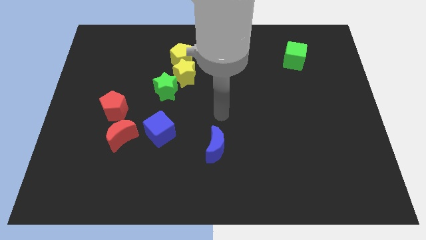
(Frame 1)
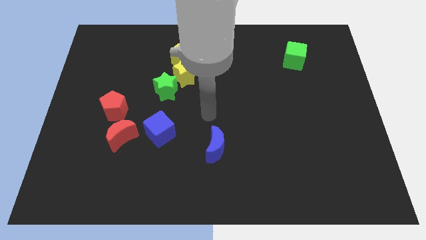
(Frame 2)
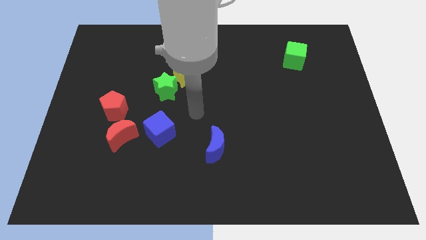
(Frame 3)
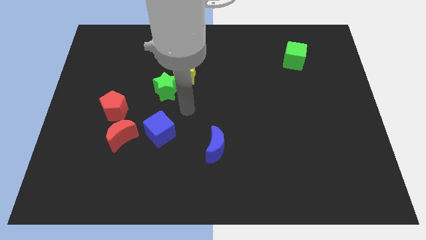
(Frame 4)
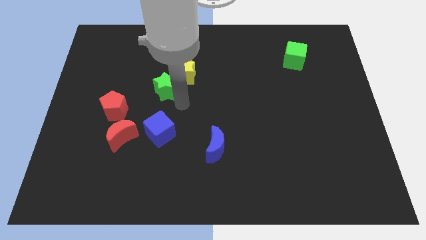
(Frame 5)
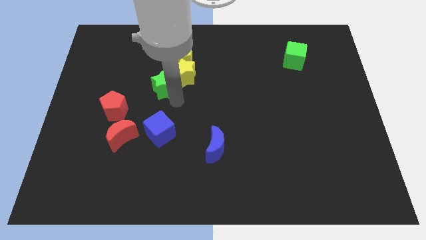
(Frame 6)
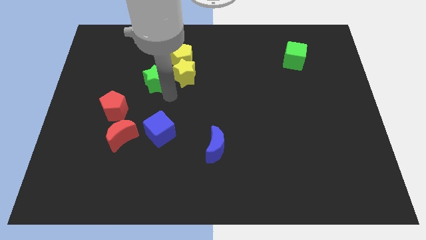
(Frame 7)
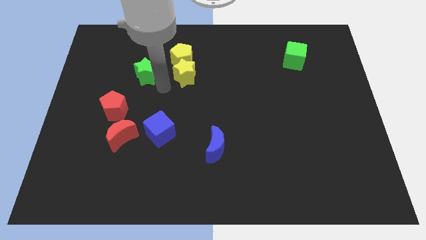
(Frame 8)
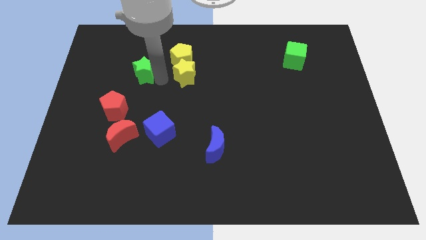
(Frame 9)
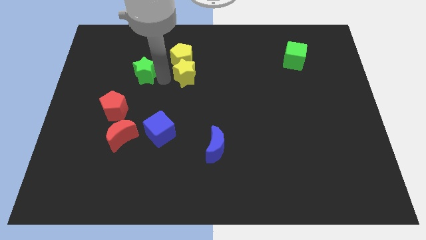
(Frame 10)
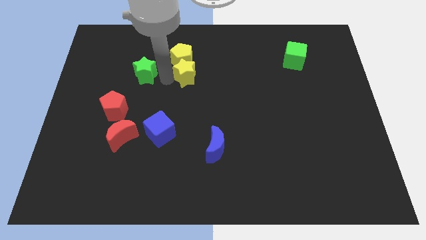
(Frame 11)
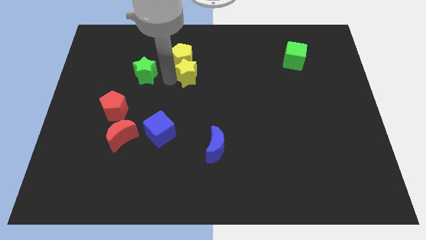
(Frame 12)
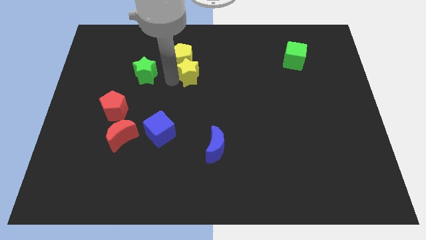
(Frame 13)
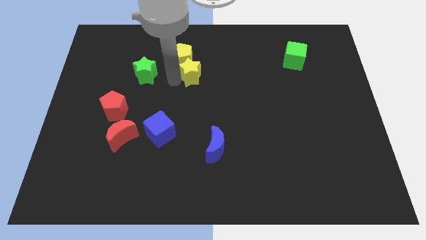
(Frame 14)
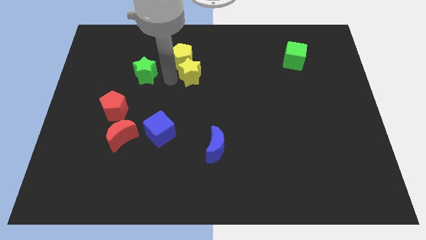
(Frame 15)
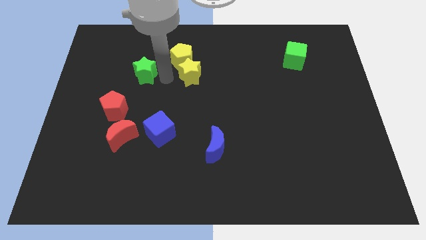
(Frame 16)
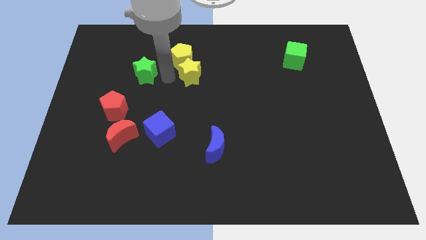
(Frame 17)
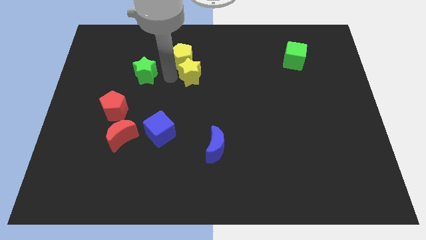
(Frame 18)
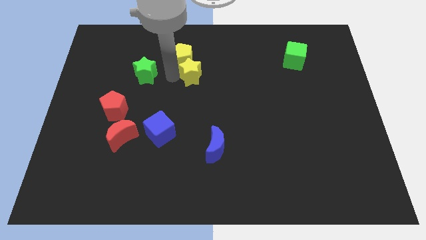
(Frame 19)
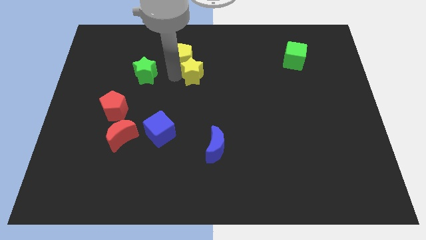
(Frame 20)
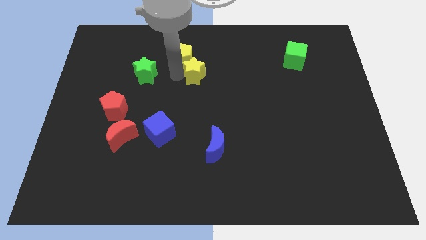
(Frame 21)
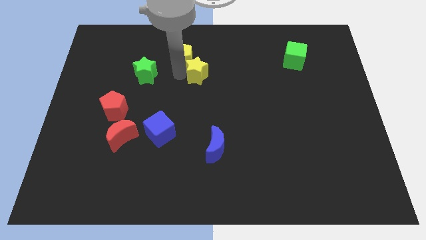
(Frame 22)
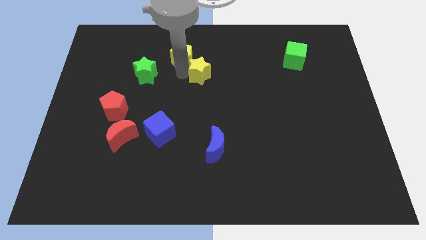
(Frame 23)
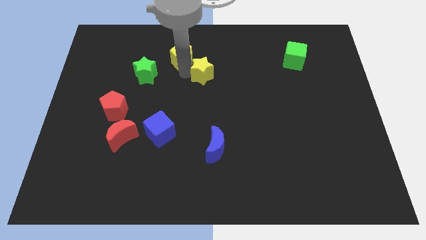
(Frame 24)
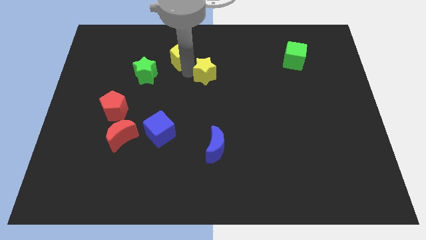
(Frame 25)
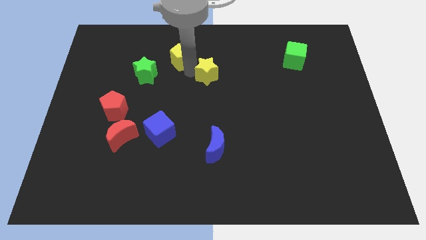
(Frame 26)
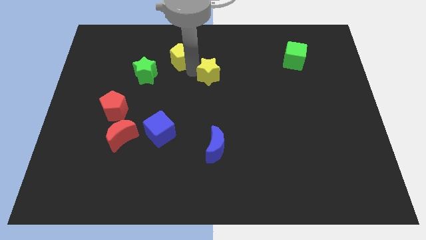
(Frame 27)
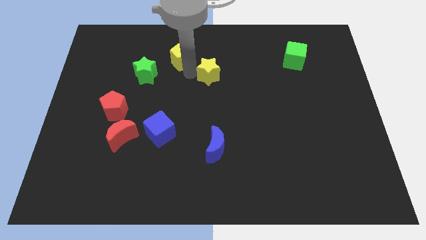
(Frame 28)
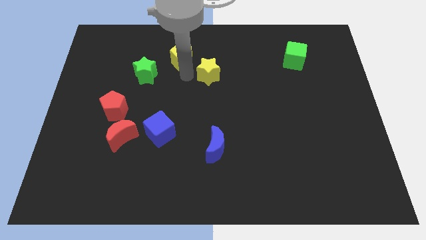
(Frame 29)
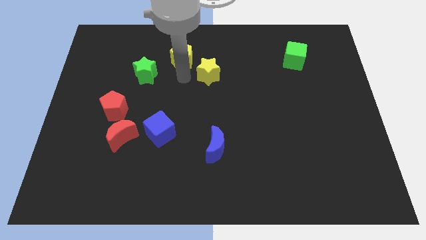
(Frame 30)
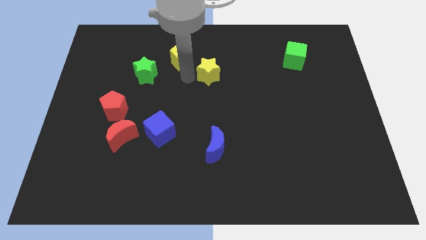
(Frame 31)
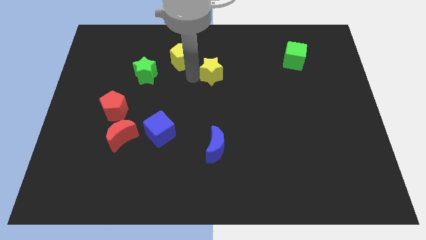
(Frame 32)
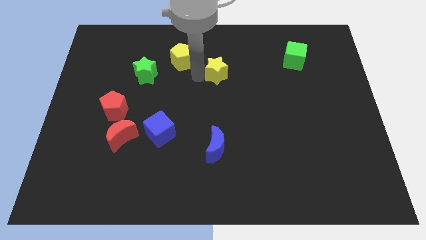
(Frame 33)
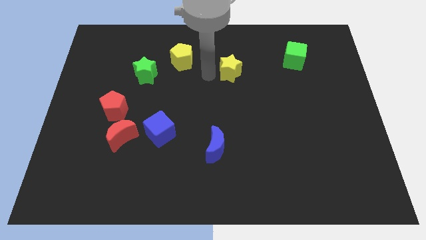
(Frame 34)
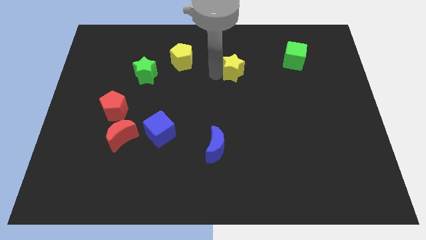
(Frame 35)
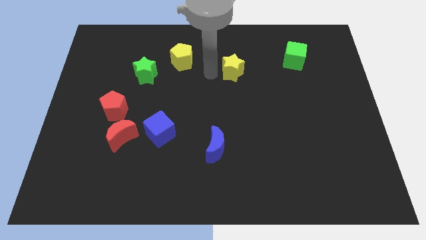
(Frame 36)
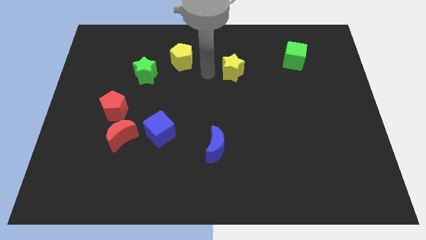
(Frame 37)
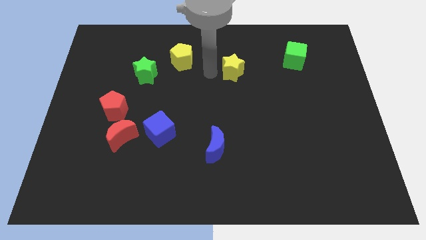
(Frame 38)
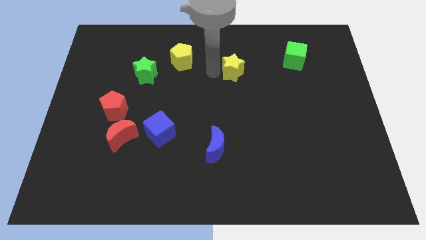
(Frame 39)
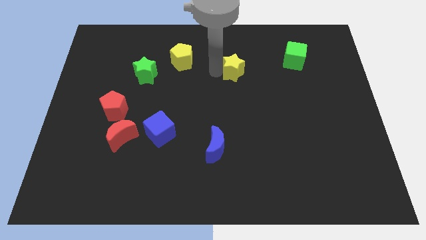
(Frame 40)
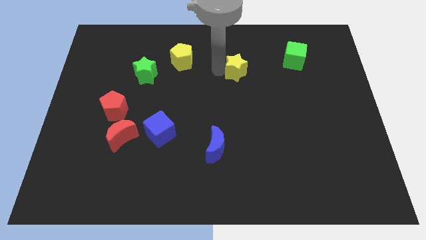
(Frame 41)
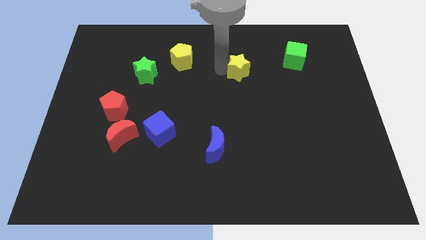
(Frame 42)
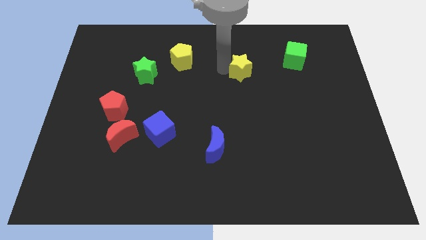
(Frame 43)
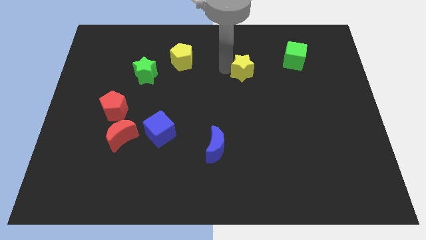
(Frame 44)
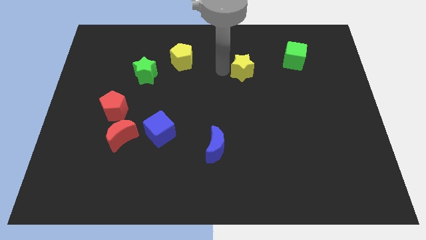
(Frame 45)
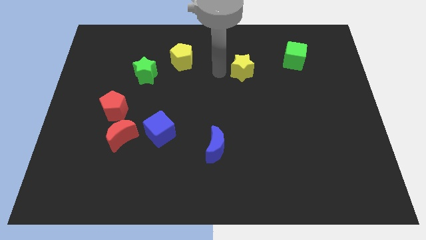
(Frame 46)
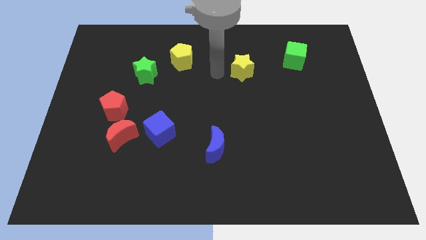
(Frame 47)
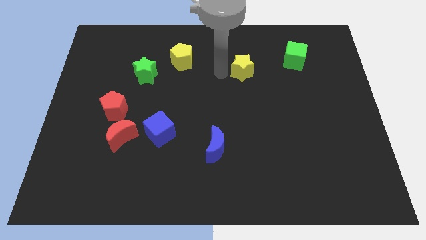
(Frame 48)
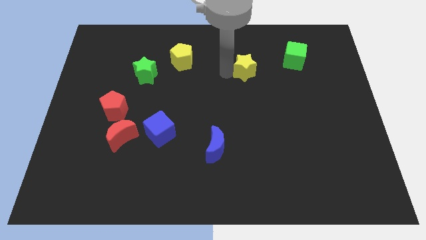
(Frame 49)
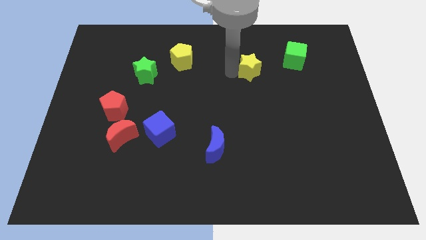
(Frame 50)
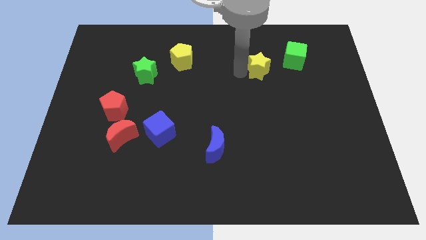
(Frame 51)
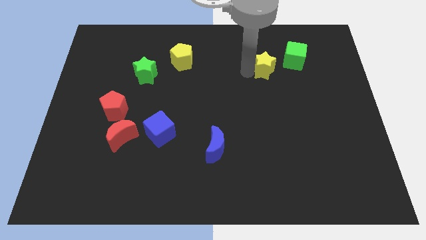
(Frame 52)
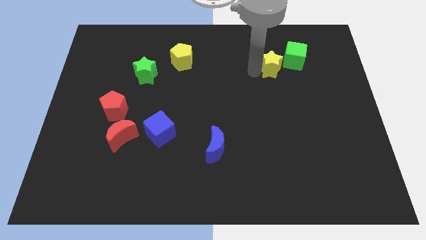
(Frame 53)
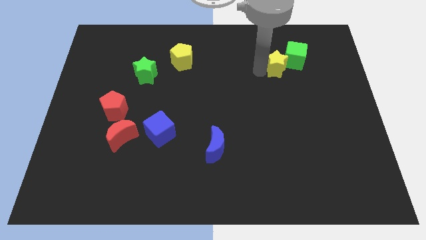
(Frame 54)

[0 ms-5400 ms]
push the yellow star towards the green cube

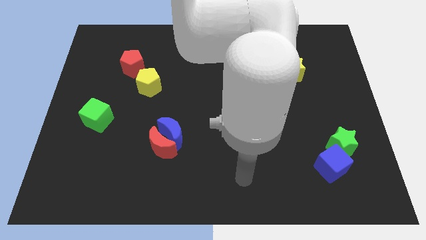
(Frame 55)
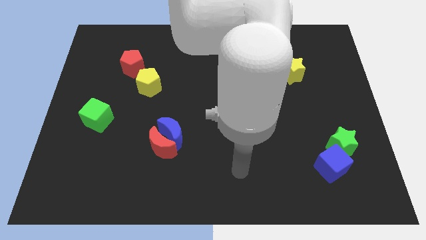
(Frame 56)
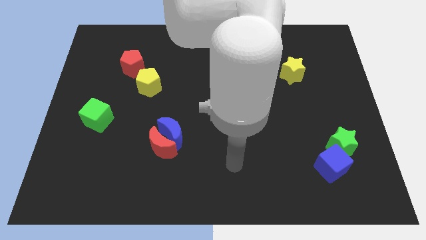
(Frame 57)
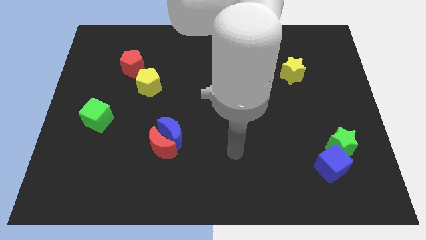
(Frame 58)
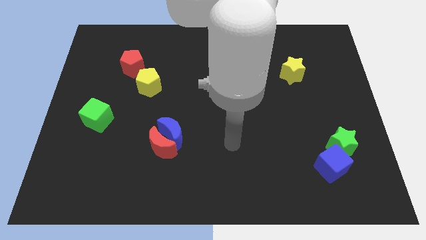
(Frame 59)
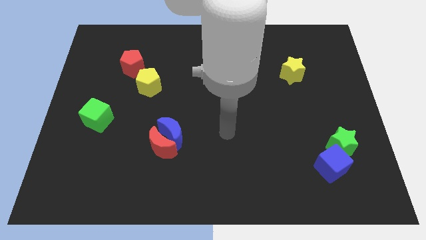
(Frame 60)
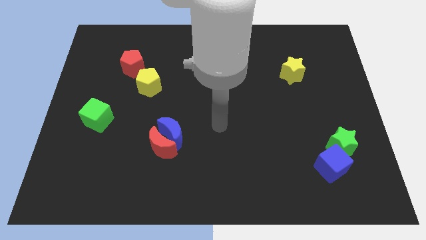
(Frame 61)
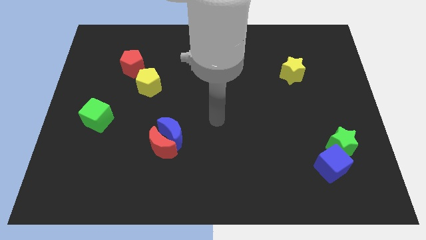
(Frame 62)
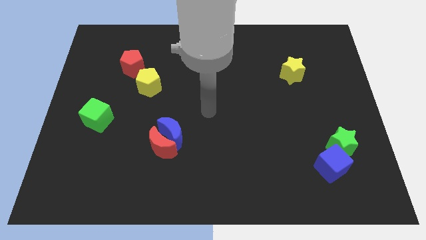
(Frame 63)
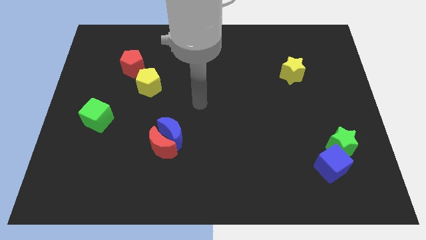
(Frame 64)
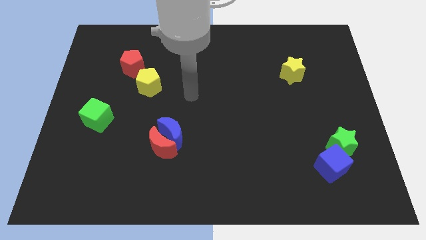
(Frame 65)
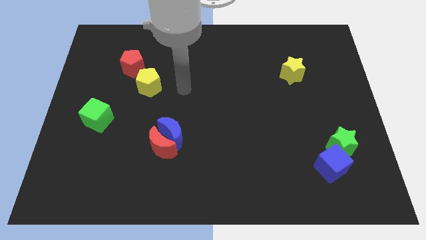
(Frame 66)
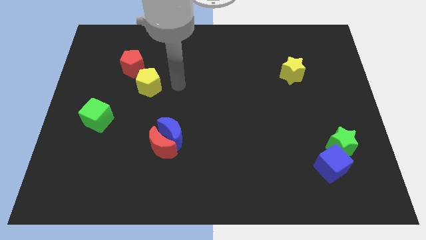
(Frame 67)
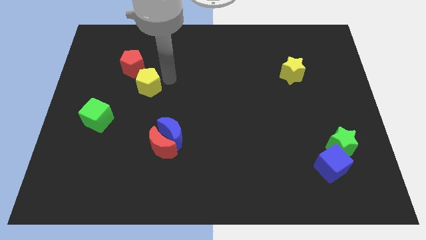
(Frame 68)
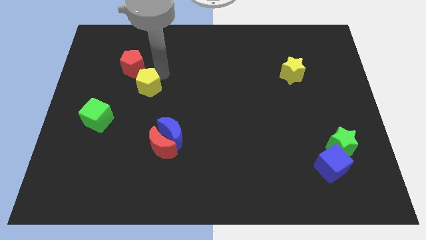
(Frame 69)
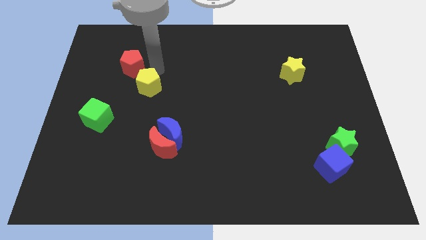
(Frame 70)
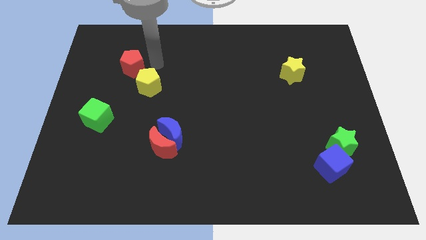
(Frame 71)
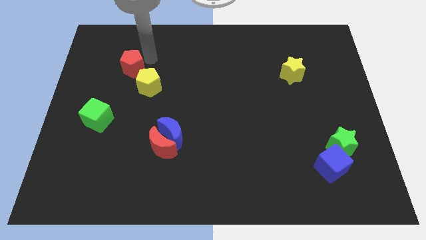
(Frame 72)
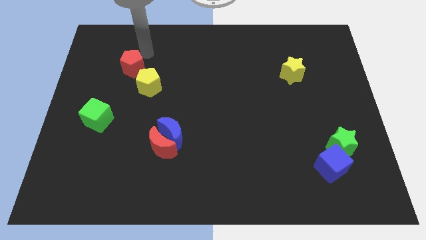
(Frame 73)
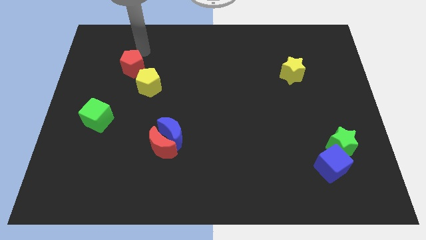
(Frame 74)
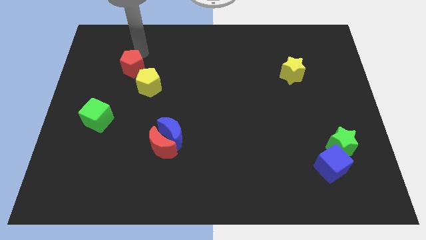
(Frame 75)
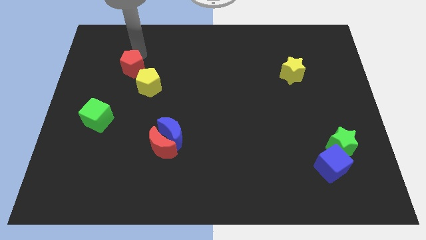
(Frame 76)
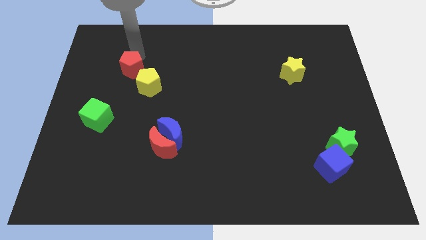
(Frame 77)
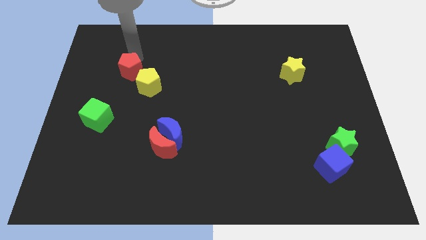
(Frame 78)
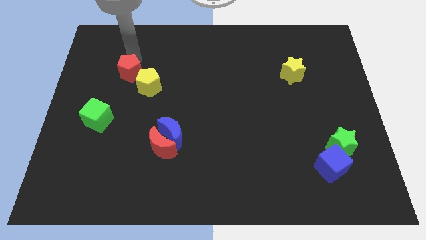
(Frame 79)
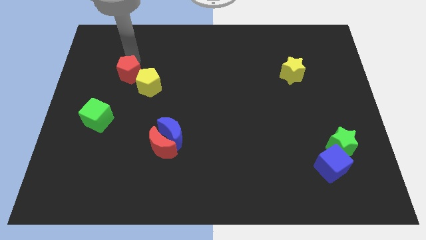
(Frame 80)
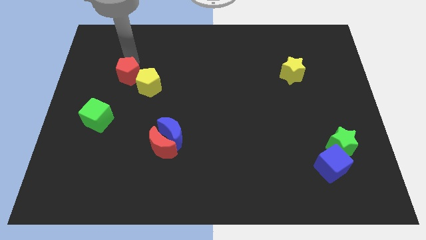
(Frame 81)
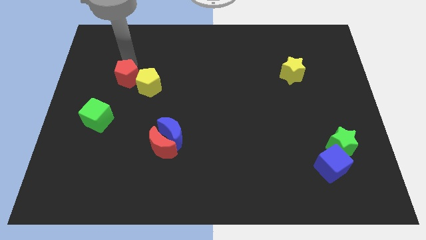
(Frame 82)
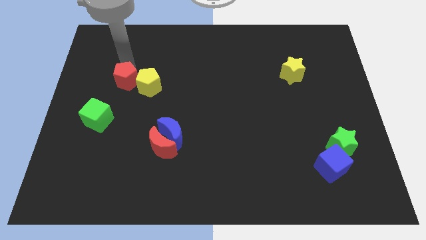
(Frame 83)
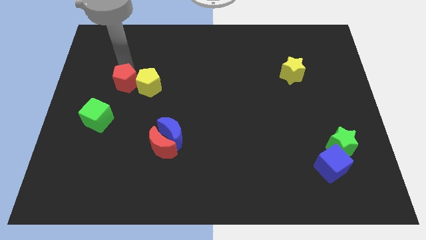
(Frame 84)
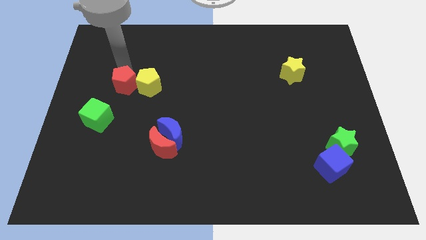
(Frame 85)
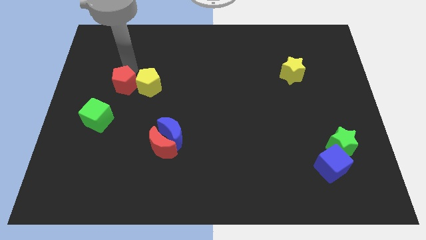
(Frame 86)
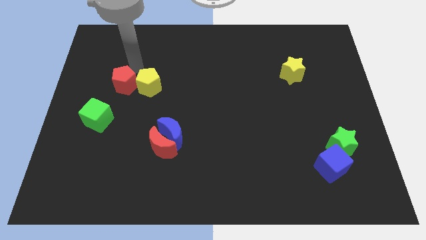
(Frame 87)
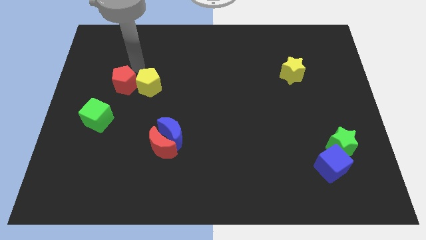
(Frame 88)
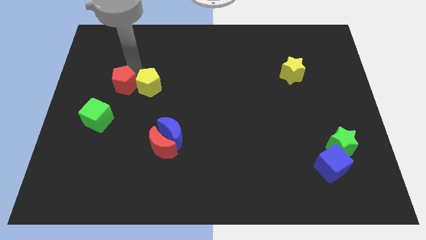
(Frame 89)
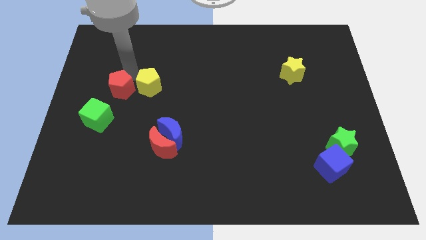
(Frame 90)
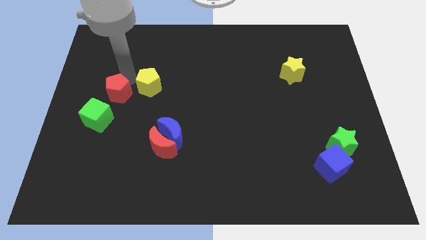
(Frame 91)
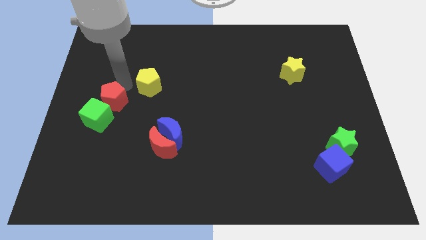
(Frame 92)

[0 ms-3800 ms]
slide the red pentagon towards the green cube
